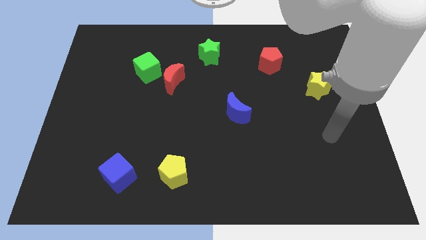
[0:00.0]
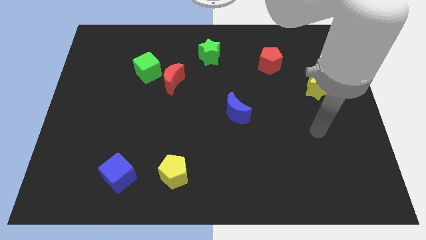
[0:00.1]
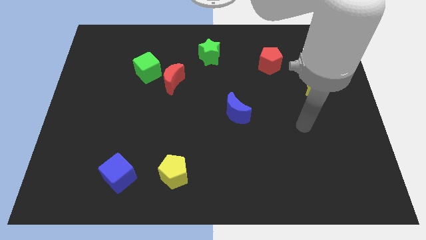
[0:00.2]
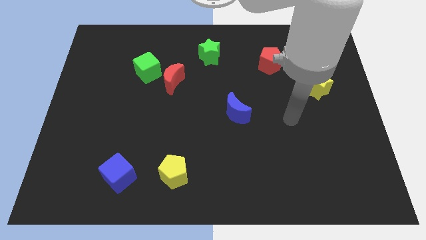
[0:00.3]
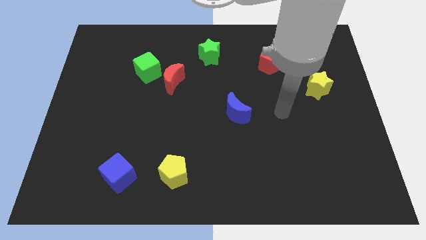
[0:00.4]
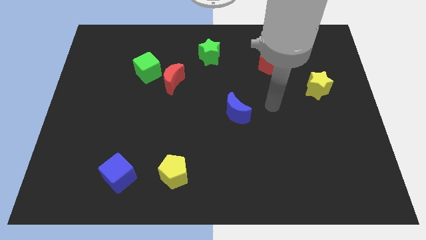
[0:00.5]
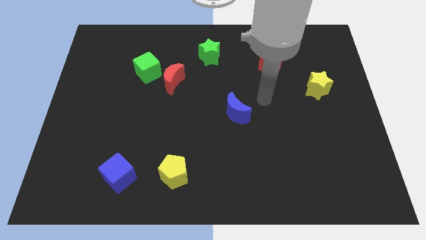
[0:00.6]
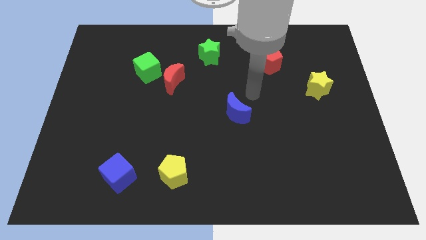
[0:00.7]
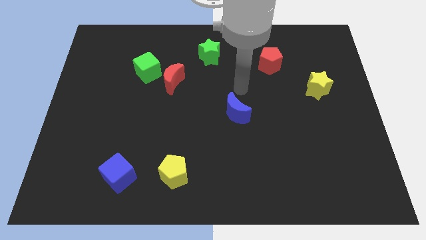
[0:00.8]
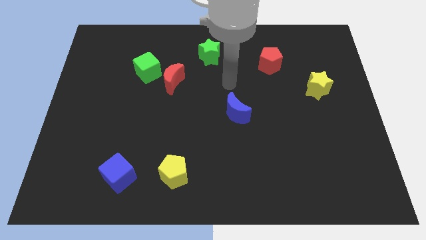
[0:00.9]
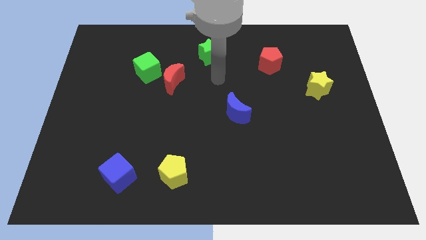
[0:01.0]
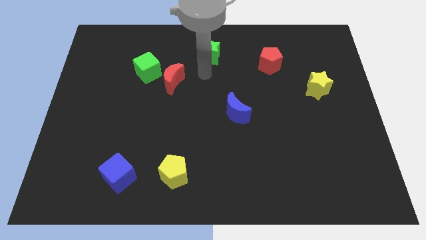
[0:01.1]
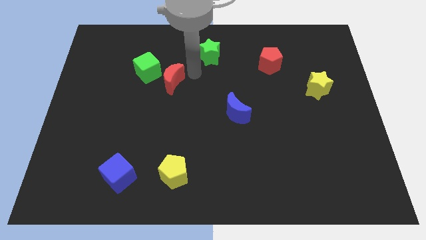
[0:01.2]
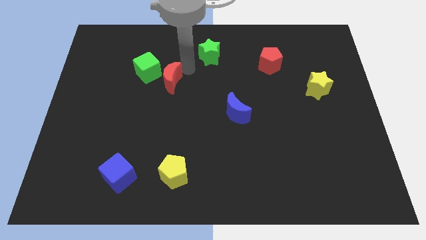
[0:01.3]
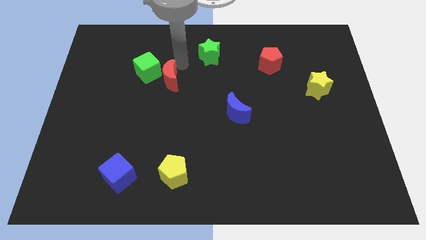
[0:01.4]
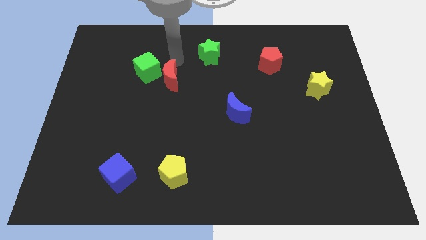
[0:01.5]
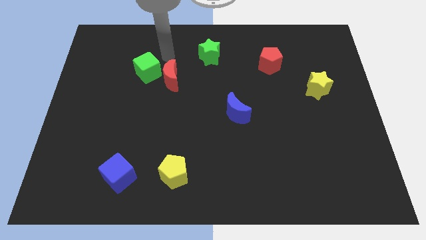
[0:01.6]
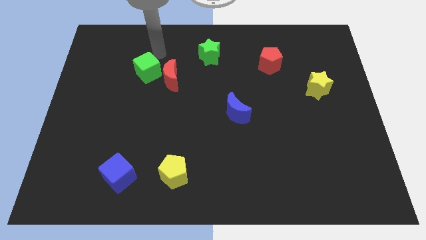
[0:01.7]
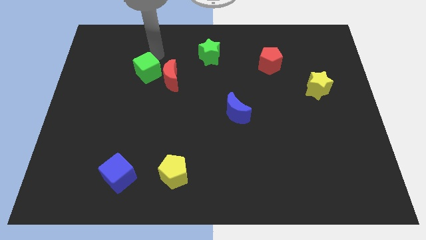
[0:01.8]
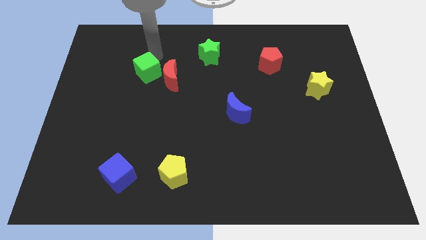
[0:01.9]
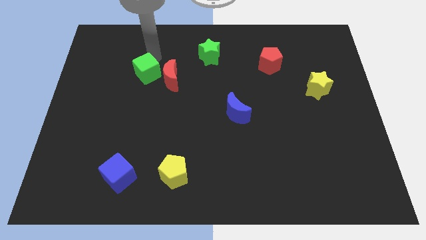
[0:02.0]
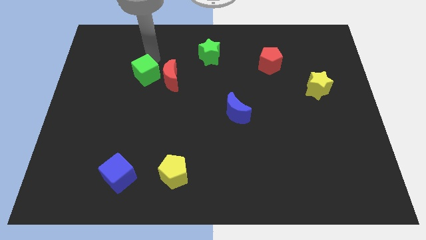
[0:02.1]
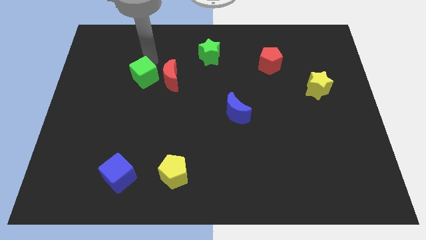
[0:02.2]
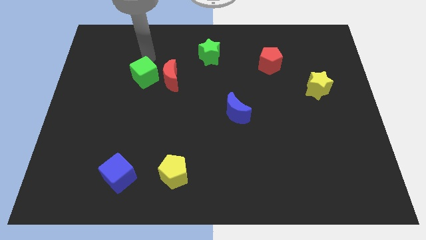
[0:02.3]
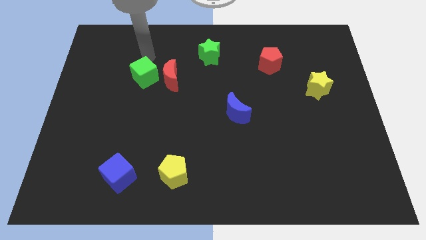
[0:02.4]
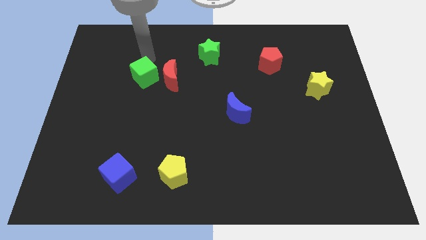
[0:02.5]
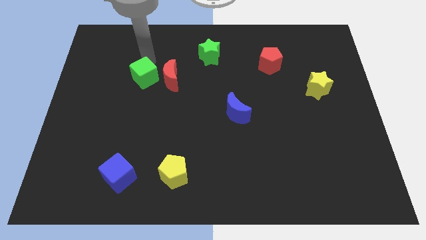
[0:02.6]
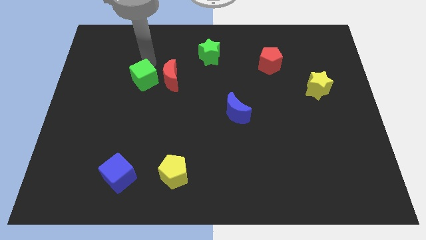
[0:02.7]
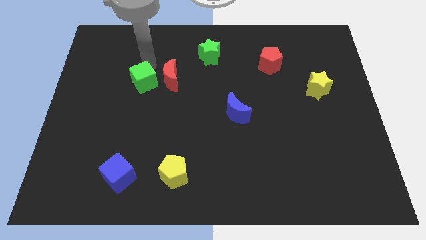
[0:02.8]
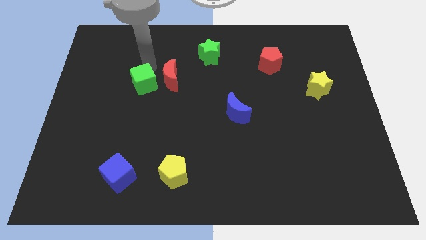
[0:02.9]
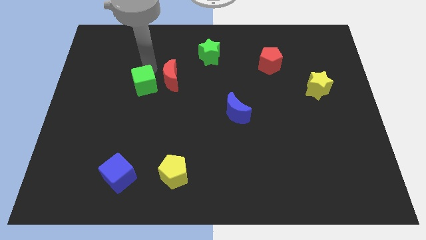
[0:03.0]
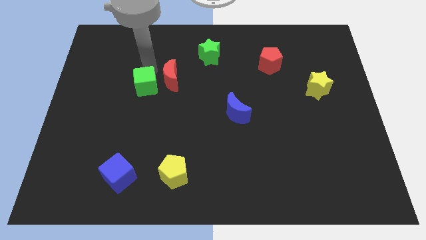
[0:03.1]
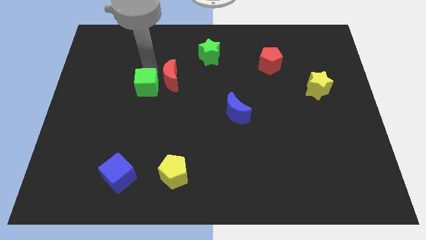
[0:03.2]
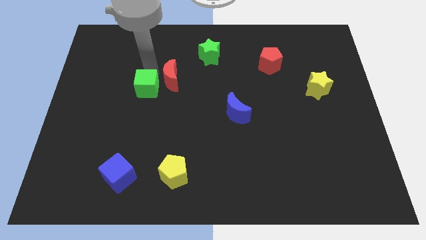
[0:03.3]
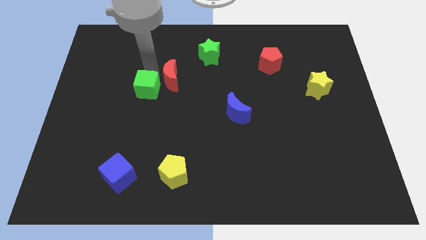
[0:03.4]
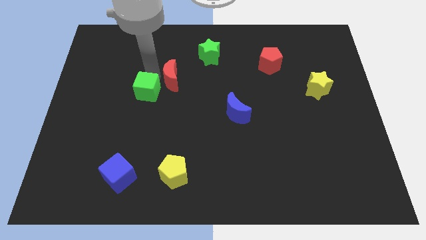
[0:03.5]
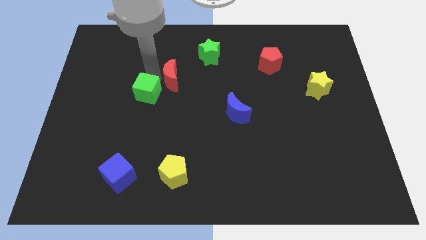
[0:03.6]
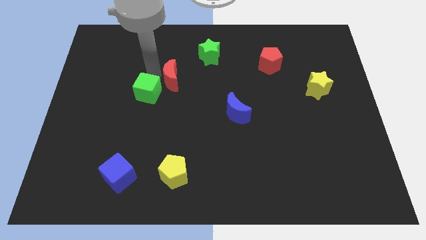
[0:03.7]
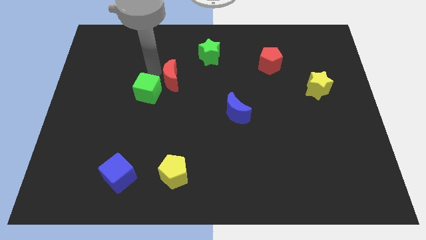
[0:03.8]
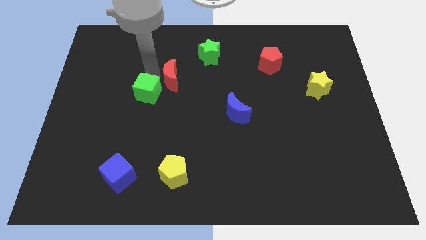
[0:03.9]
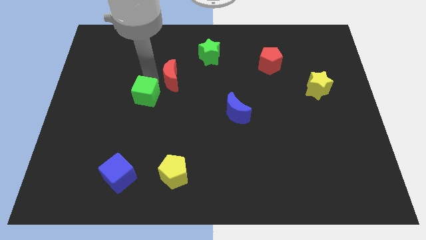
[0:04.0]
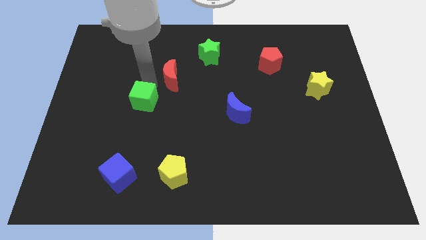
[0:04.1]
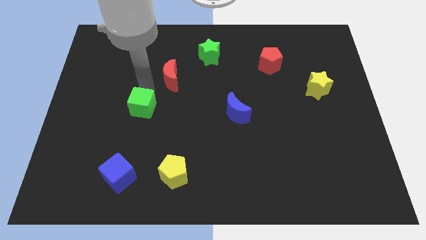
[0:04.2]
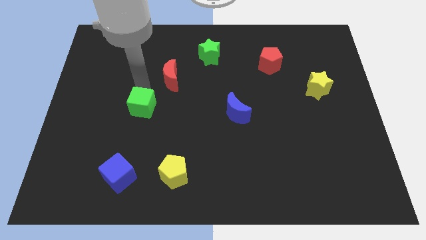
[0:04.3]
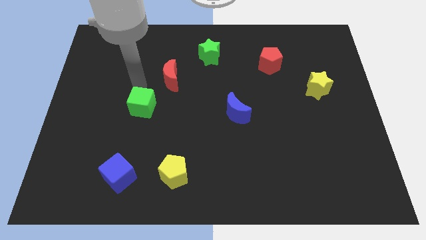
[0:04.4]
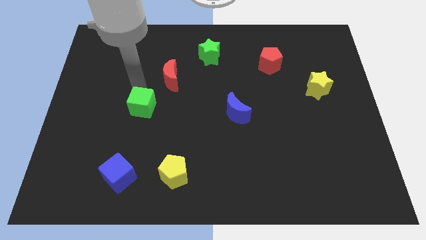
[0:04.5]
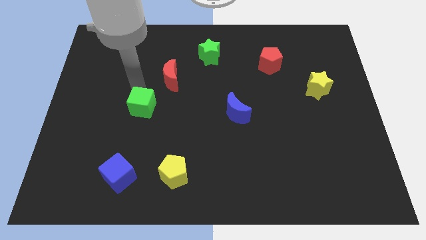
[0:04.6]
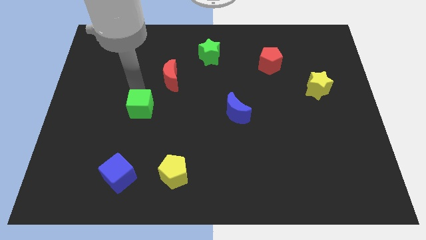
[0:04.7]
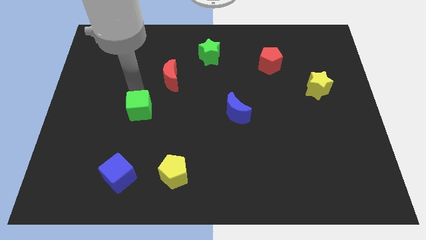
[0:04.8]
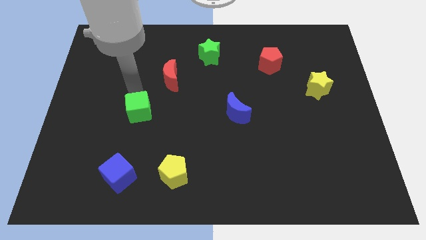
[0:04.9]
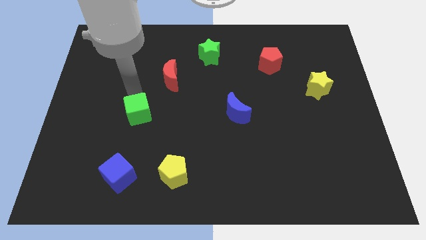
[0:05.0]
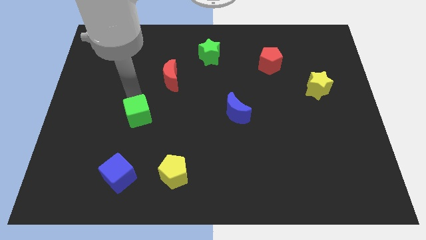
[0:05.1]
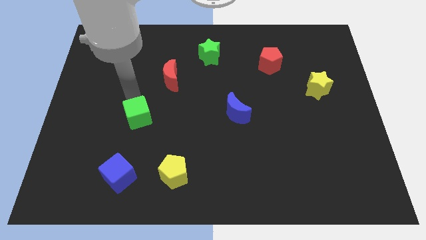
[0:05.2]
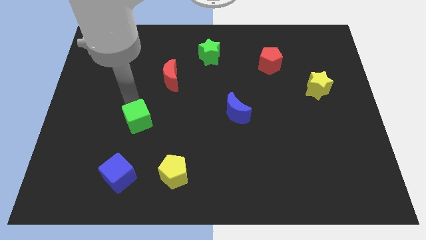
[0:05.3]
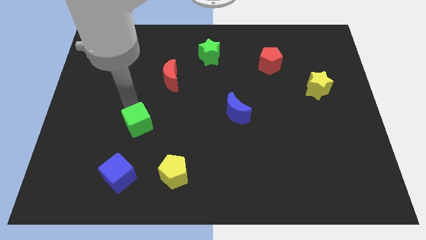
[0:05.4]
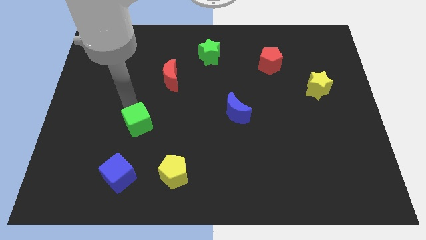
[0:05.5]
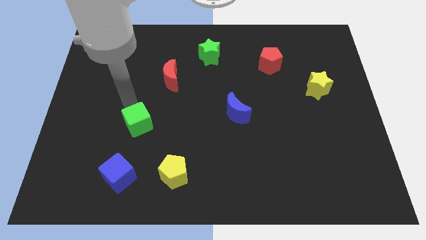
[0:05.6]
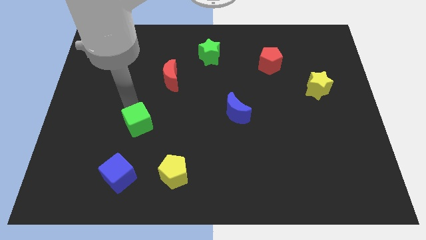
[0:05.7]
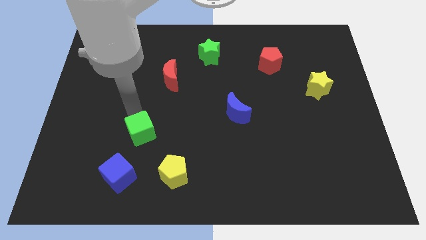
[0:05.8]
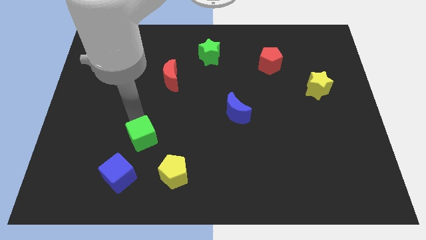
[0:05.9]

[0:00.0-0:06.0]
push the green cube to the top left side of the yellow pentagon

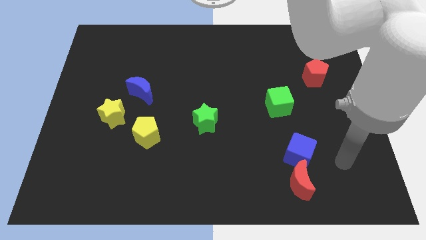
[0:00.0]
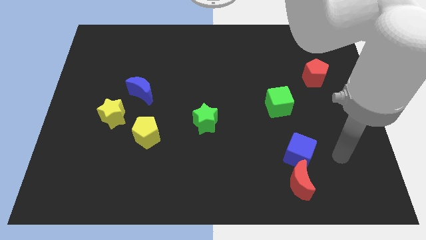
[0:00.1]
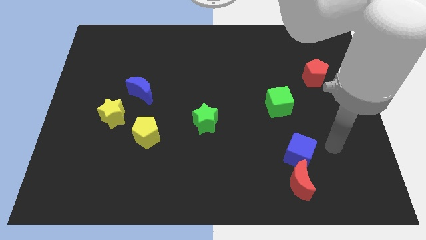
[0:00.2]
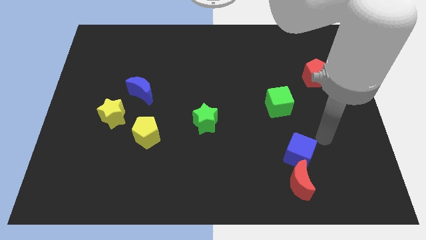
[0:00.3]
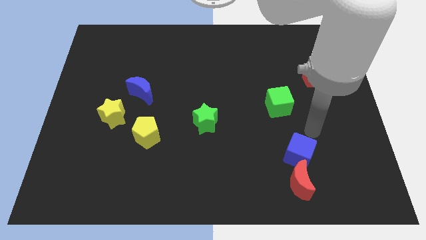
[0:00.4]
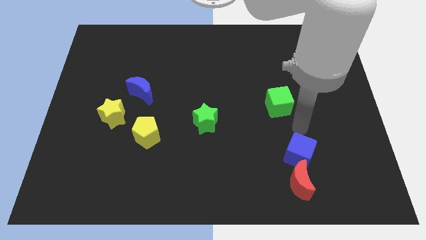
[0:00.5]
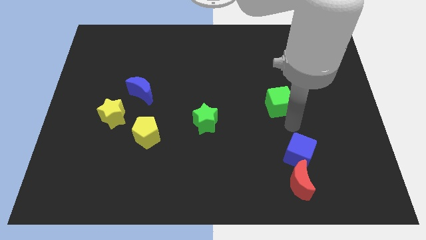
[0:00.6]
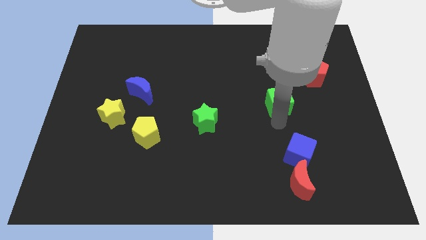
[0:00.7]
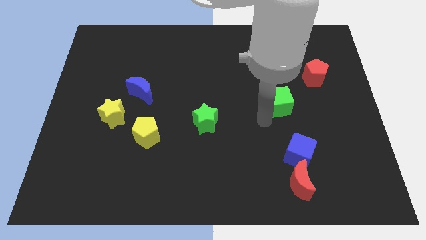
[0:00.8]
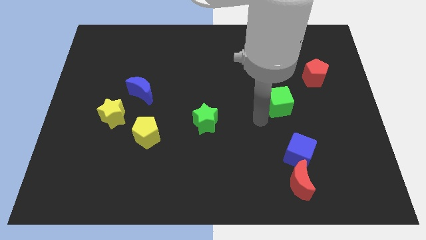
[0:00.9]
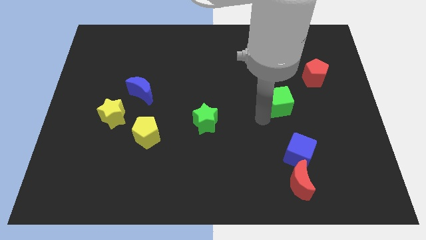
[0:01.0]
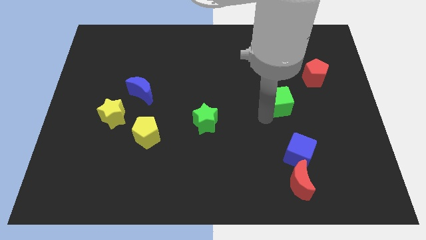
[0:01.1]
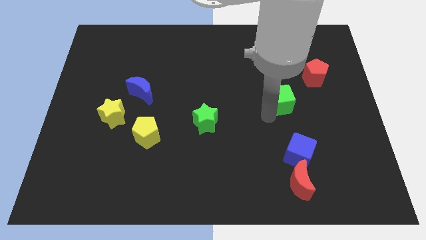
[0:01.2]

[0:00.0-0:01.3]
move the green cube diagonally down and to the left of the red pentagon
